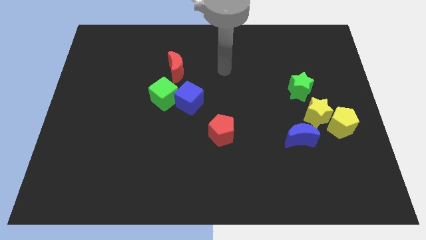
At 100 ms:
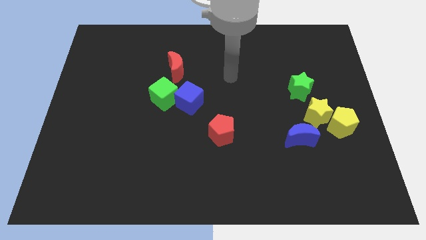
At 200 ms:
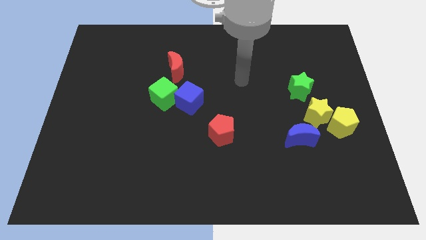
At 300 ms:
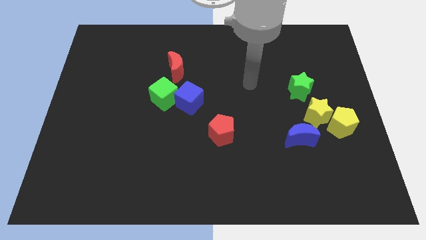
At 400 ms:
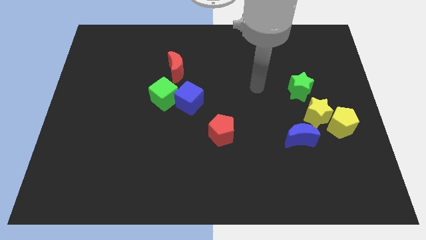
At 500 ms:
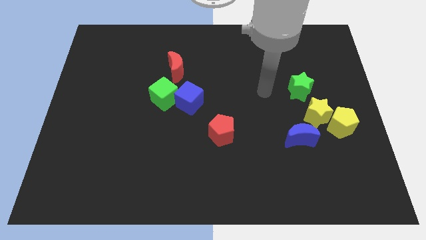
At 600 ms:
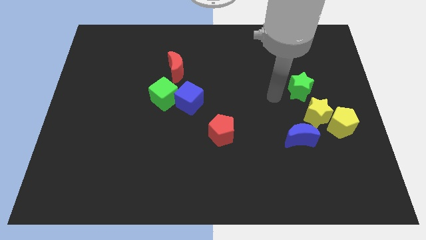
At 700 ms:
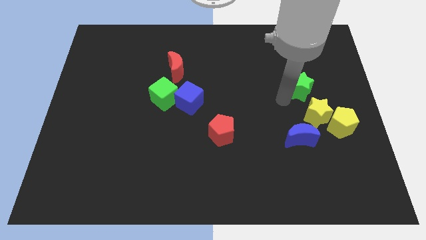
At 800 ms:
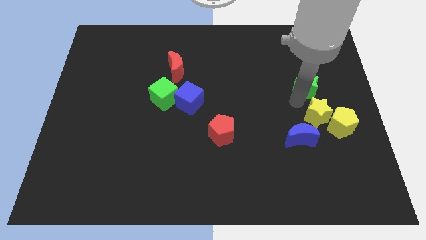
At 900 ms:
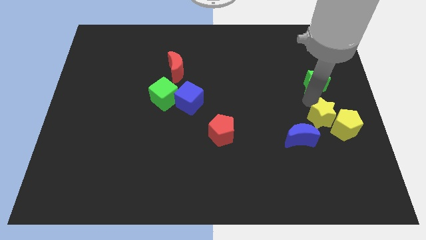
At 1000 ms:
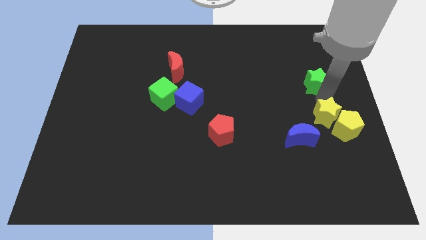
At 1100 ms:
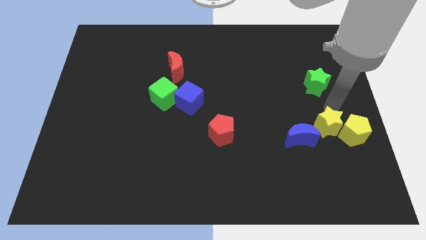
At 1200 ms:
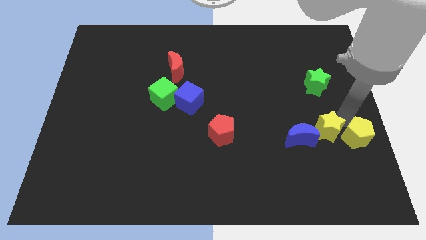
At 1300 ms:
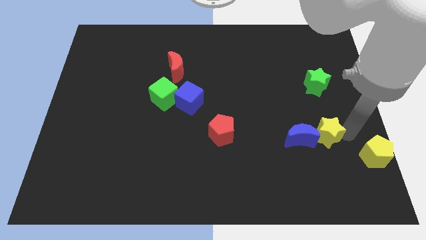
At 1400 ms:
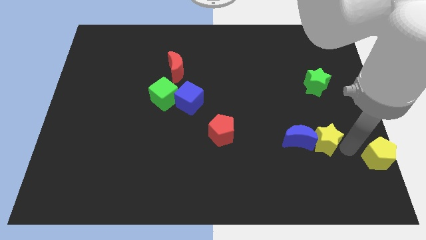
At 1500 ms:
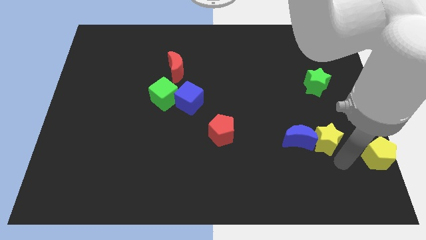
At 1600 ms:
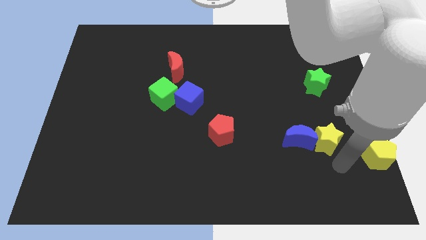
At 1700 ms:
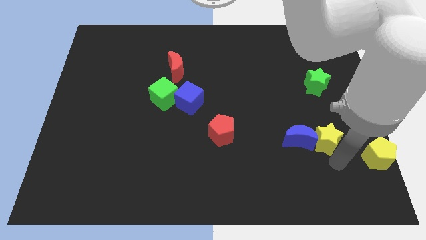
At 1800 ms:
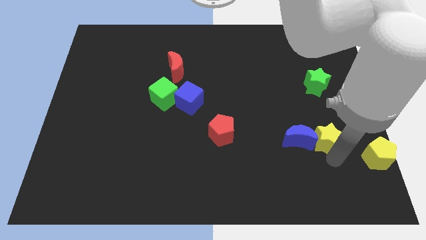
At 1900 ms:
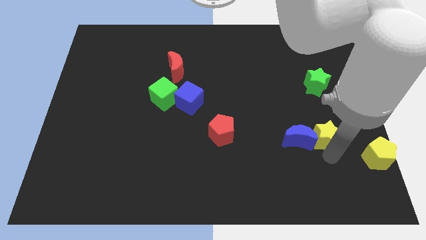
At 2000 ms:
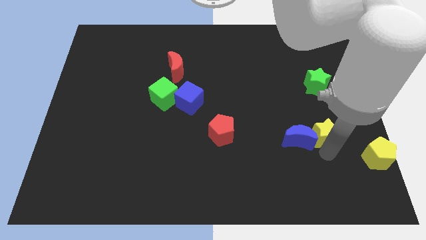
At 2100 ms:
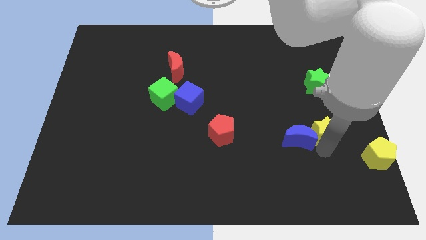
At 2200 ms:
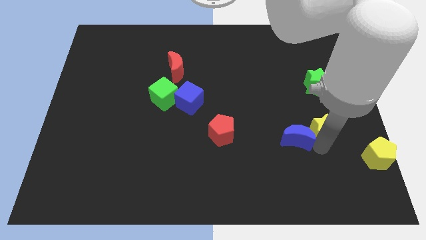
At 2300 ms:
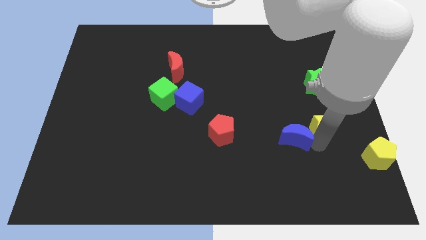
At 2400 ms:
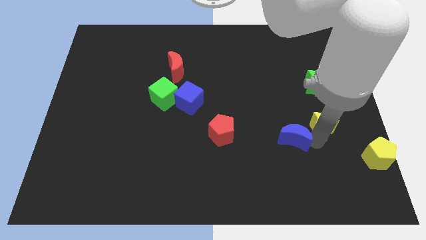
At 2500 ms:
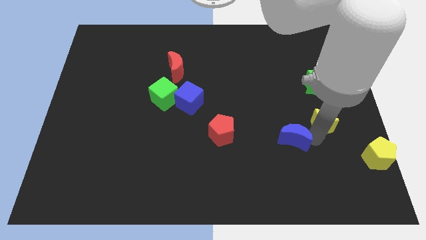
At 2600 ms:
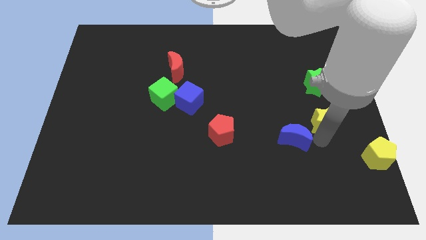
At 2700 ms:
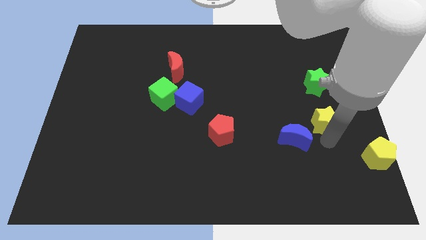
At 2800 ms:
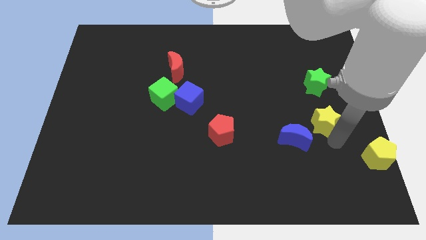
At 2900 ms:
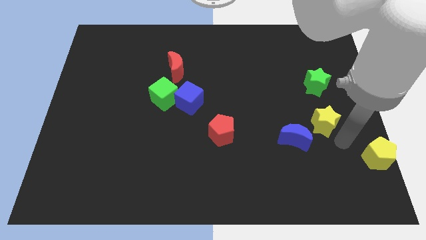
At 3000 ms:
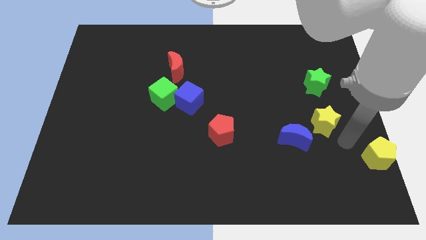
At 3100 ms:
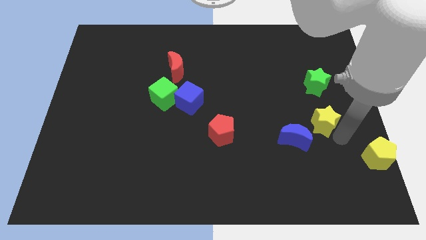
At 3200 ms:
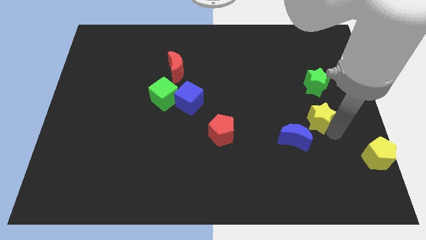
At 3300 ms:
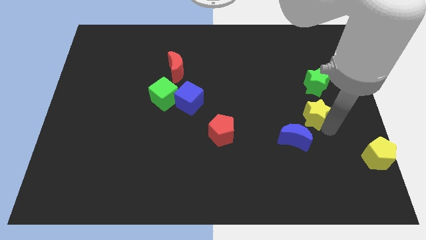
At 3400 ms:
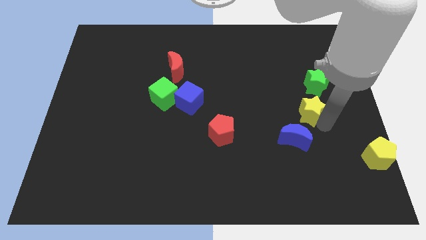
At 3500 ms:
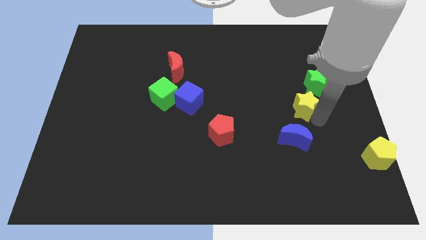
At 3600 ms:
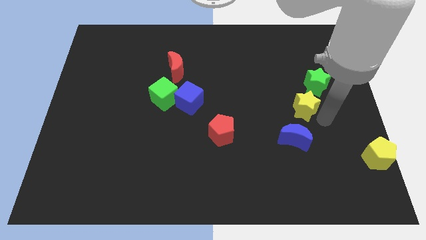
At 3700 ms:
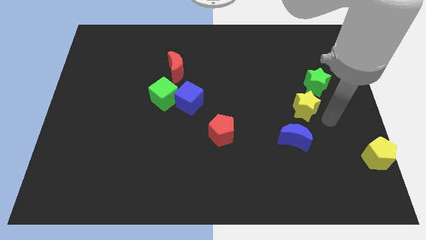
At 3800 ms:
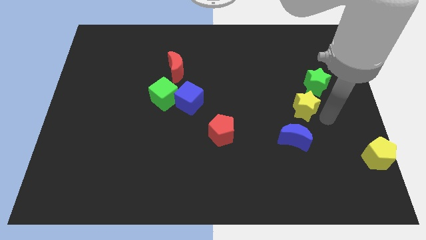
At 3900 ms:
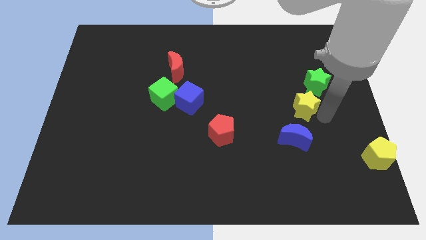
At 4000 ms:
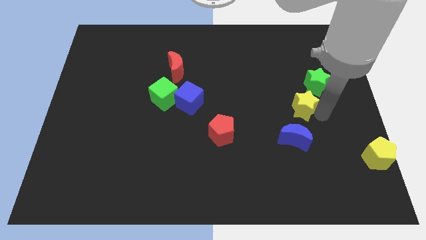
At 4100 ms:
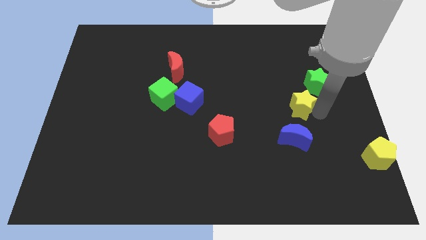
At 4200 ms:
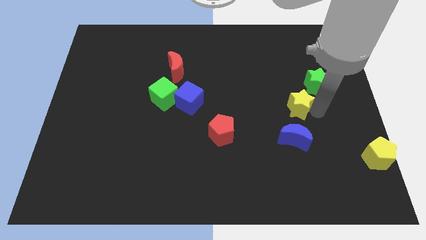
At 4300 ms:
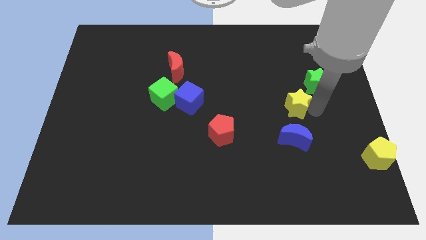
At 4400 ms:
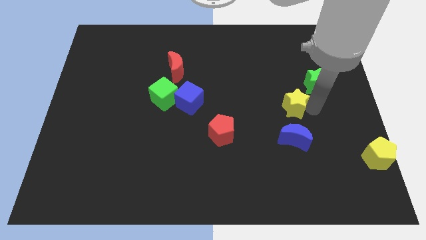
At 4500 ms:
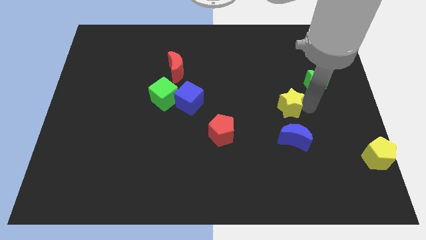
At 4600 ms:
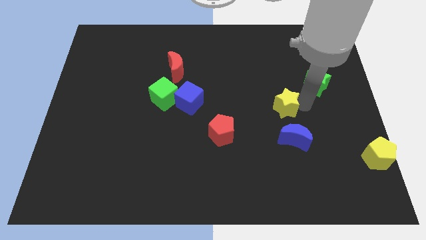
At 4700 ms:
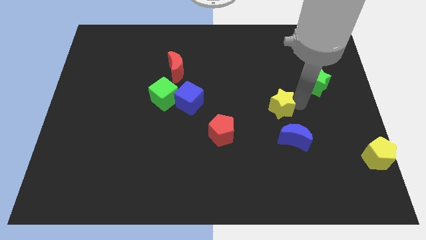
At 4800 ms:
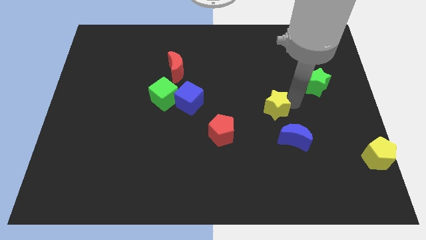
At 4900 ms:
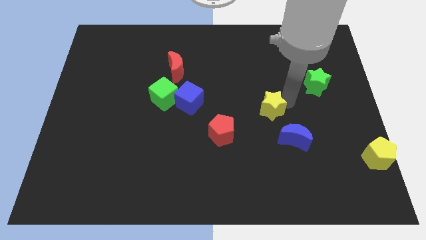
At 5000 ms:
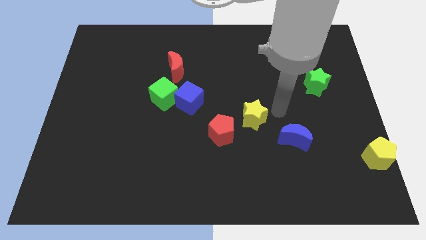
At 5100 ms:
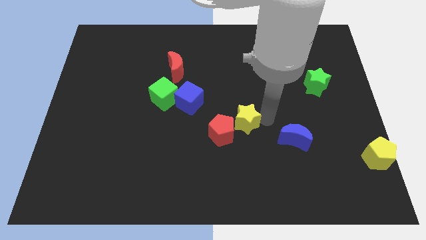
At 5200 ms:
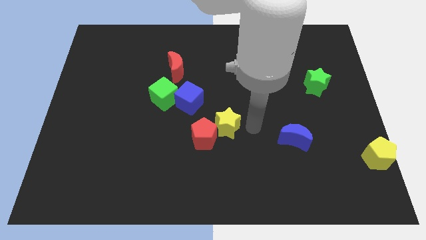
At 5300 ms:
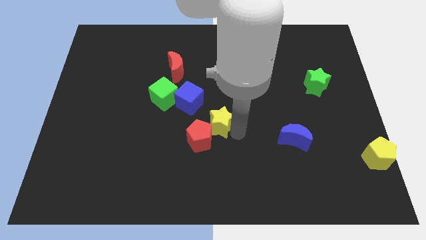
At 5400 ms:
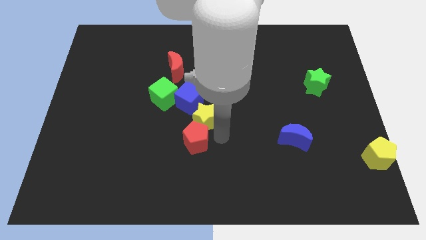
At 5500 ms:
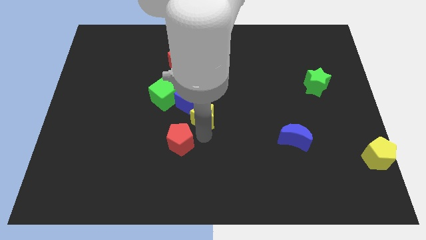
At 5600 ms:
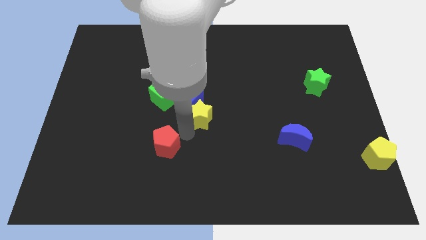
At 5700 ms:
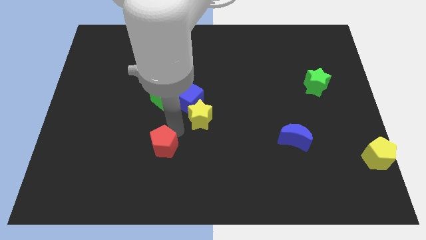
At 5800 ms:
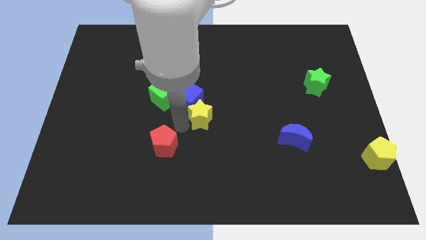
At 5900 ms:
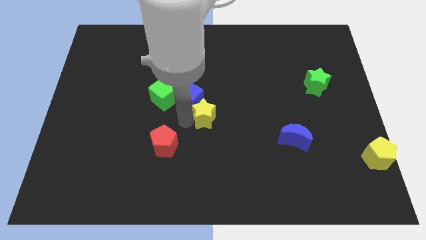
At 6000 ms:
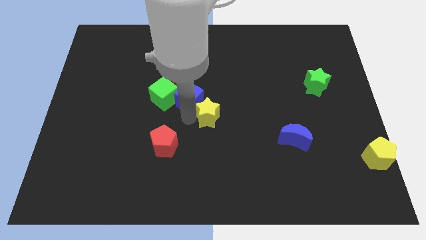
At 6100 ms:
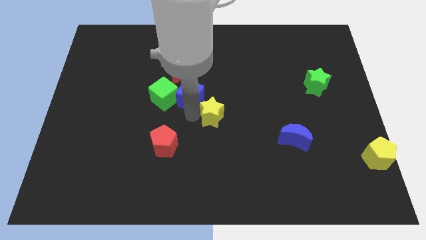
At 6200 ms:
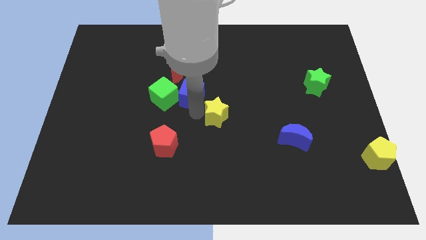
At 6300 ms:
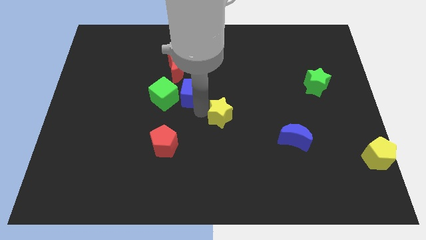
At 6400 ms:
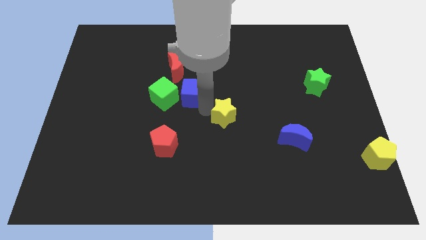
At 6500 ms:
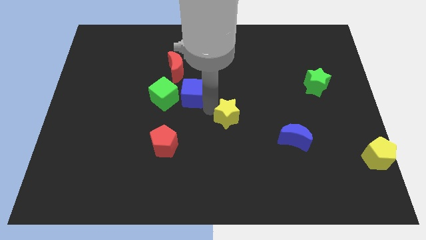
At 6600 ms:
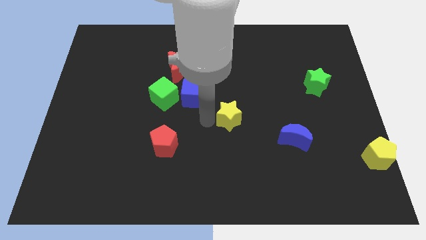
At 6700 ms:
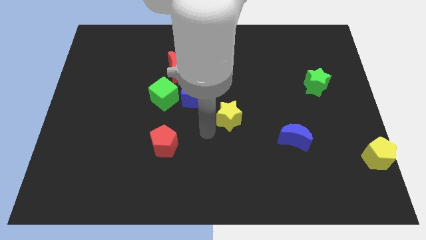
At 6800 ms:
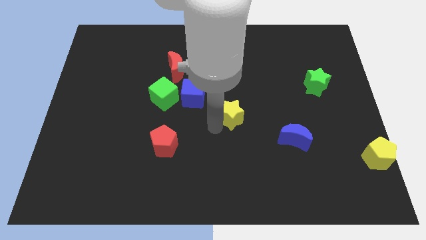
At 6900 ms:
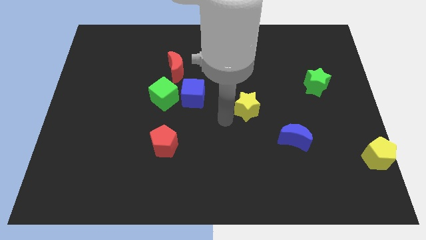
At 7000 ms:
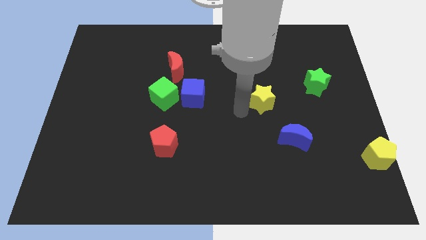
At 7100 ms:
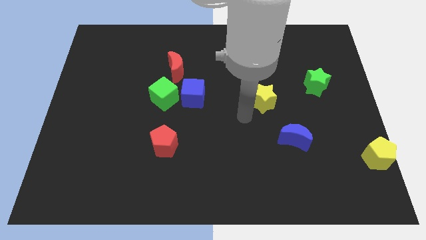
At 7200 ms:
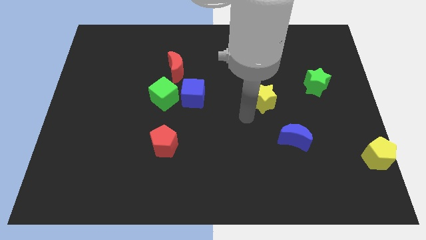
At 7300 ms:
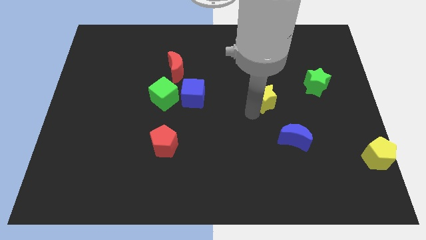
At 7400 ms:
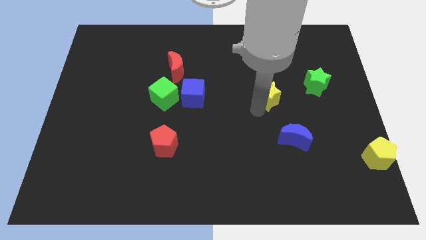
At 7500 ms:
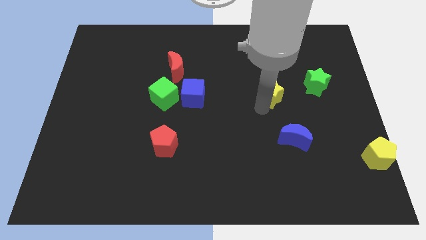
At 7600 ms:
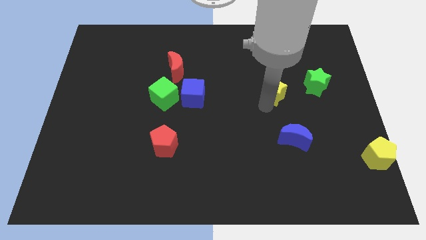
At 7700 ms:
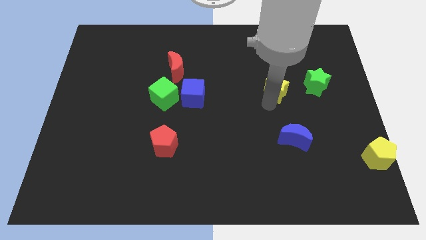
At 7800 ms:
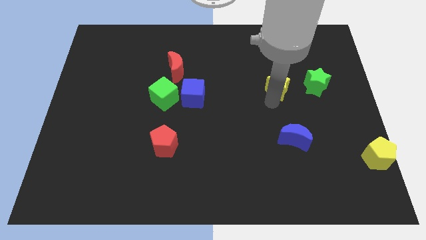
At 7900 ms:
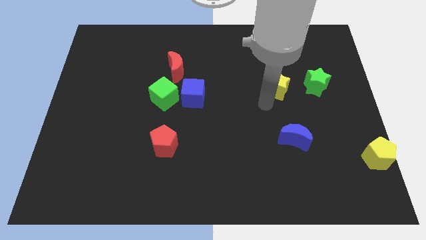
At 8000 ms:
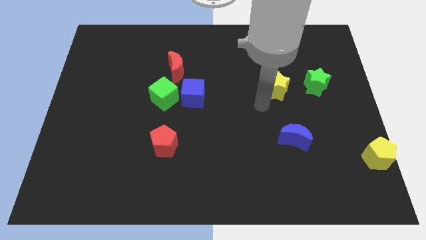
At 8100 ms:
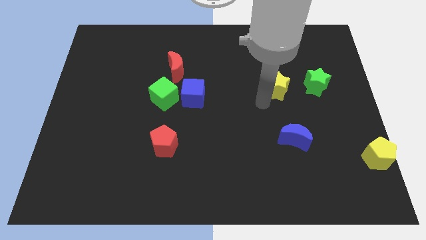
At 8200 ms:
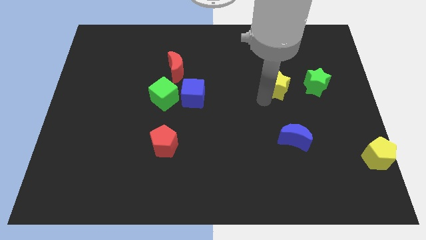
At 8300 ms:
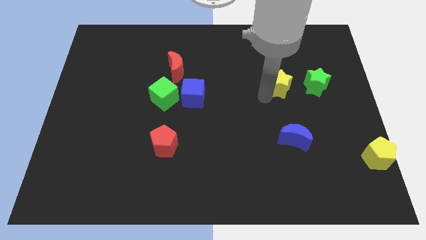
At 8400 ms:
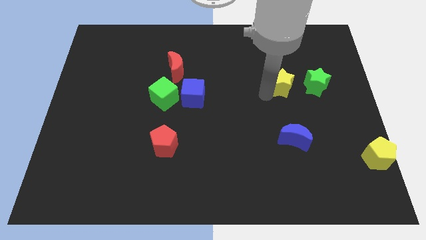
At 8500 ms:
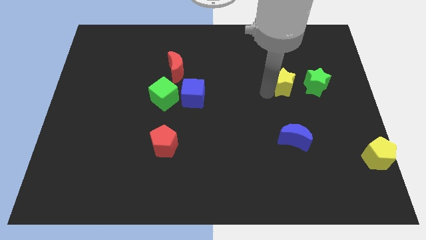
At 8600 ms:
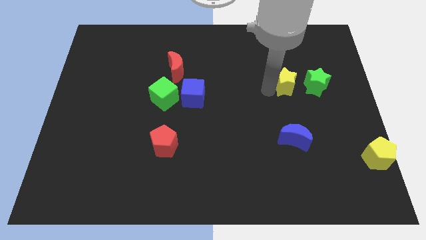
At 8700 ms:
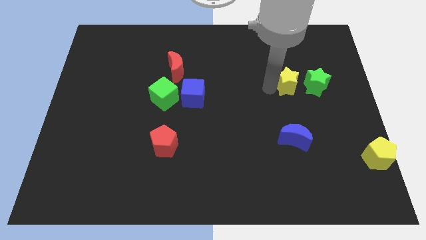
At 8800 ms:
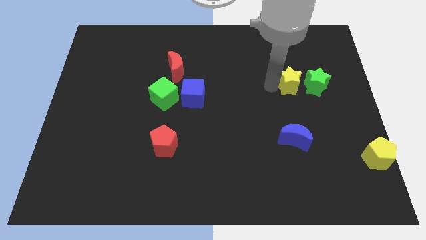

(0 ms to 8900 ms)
slide the yellow star to the top left of the green star
